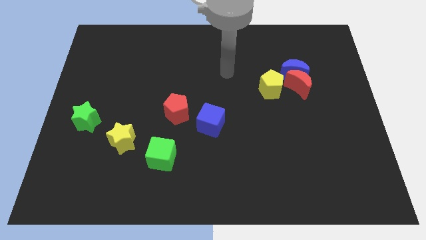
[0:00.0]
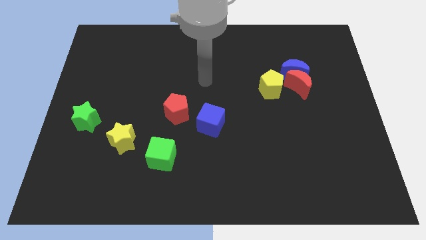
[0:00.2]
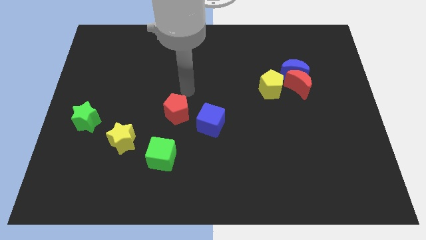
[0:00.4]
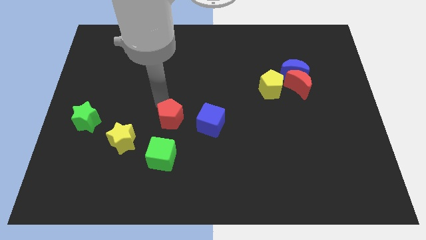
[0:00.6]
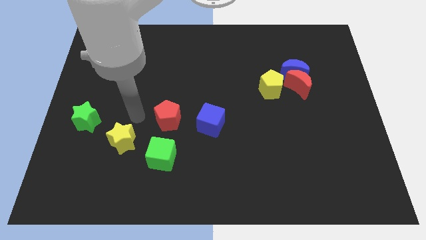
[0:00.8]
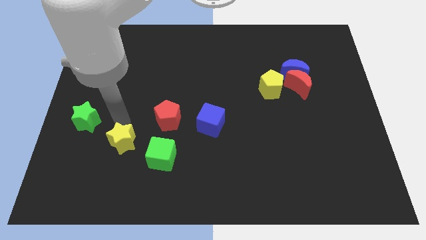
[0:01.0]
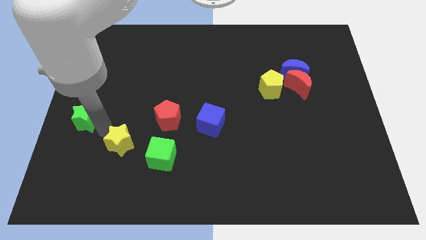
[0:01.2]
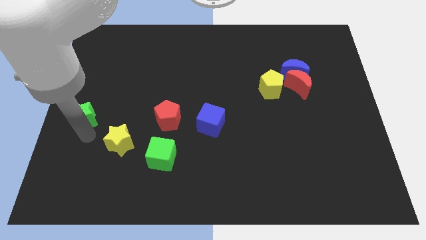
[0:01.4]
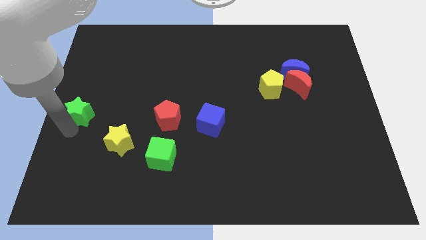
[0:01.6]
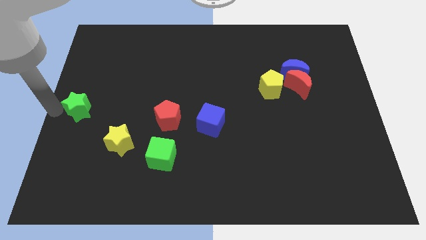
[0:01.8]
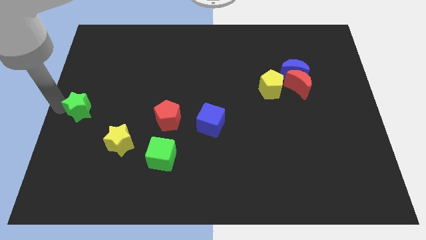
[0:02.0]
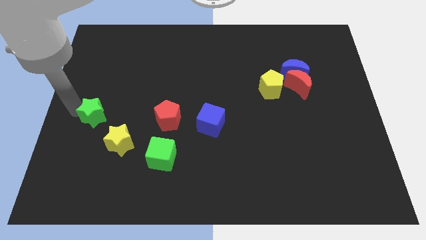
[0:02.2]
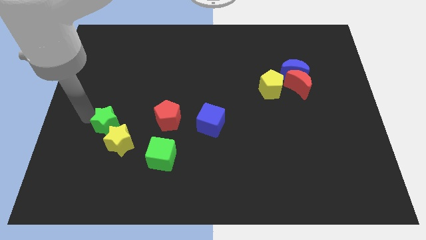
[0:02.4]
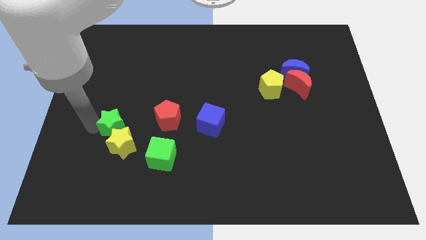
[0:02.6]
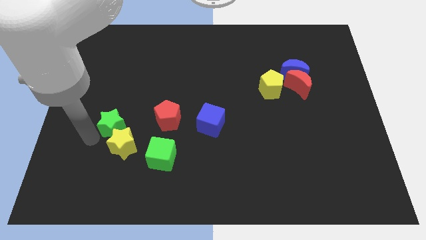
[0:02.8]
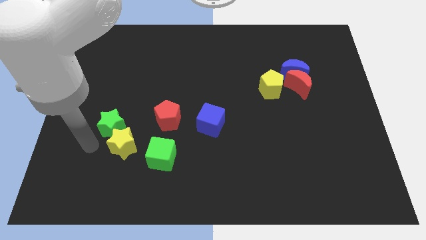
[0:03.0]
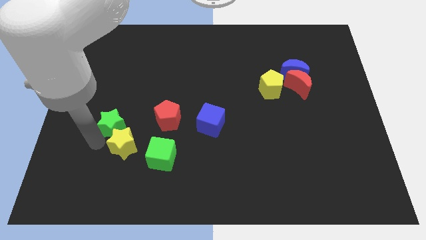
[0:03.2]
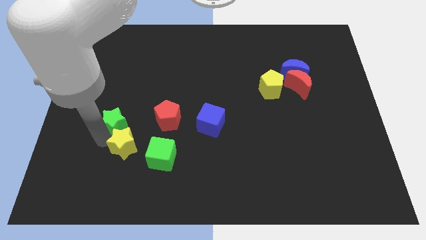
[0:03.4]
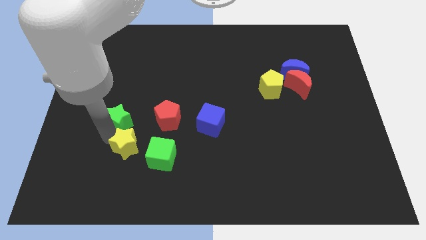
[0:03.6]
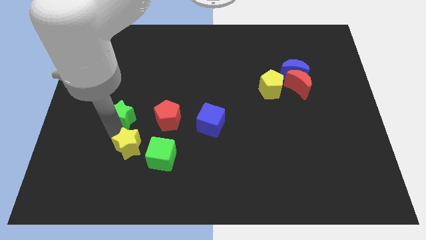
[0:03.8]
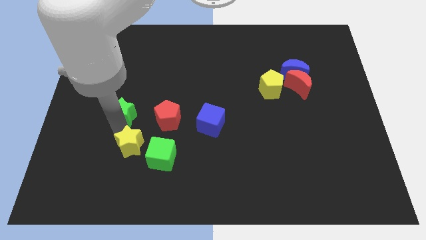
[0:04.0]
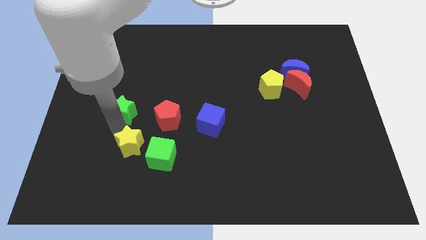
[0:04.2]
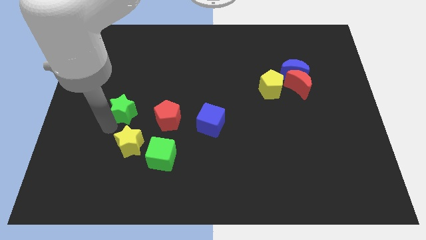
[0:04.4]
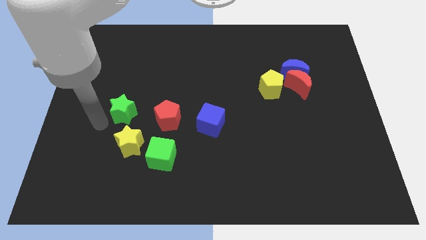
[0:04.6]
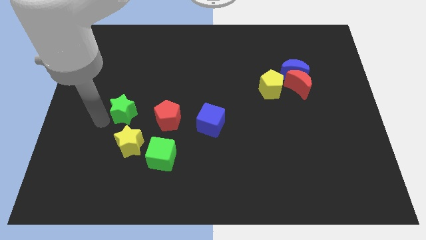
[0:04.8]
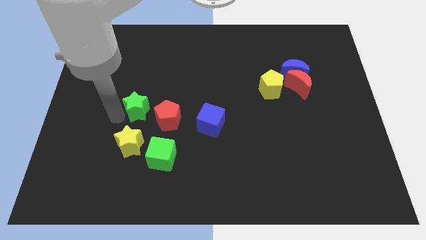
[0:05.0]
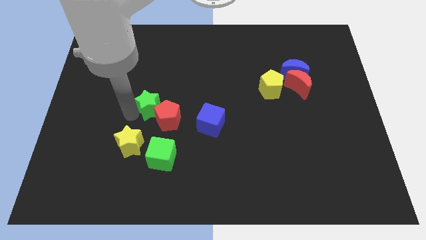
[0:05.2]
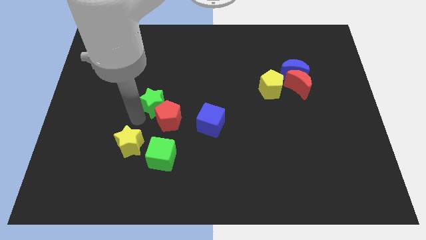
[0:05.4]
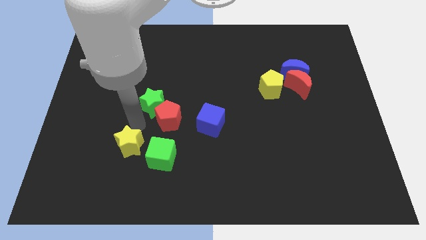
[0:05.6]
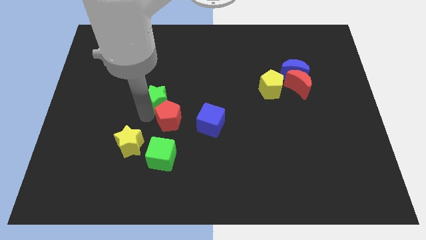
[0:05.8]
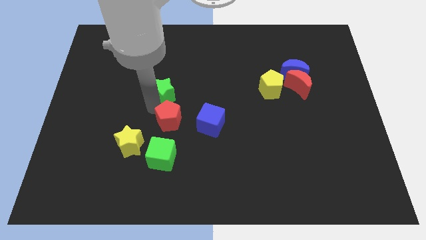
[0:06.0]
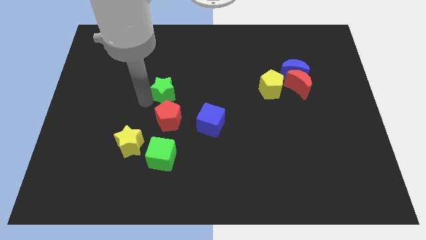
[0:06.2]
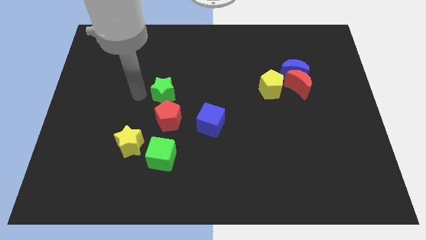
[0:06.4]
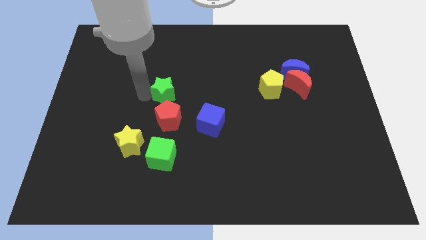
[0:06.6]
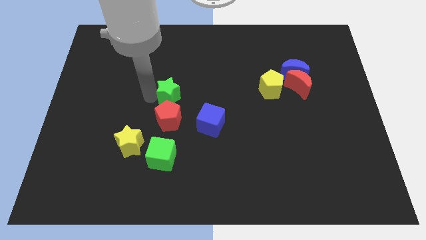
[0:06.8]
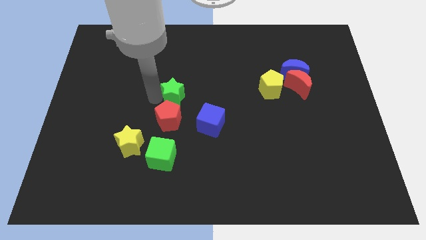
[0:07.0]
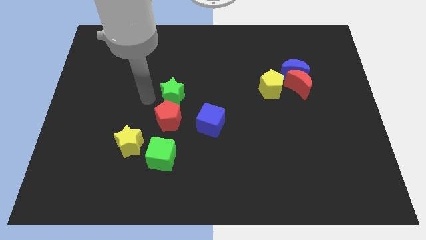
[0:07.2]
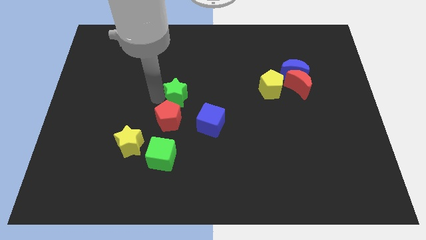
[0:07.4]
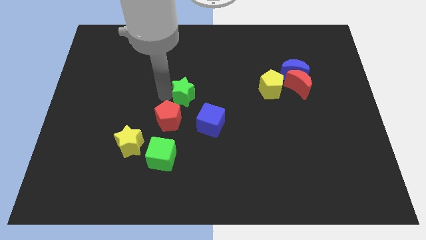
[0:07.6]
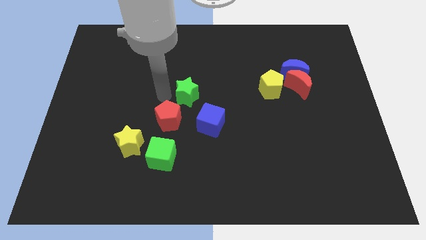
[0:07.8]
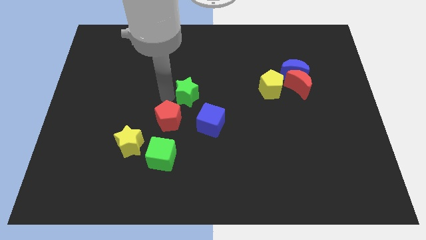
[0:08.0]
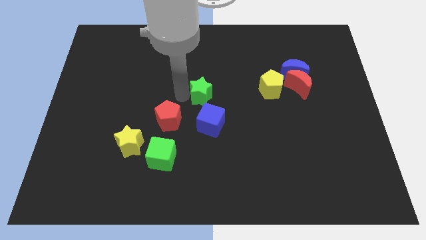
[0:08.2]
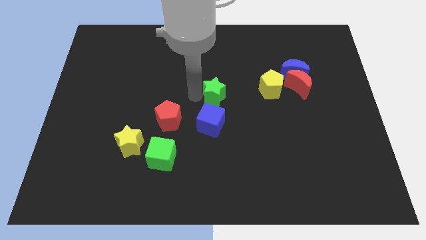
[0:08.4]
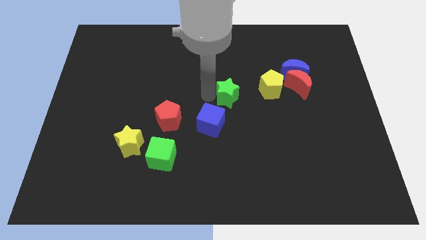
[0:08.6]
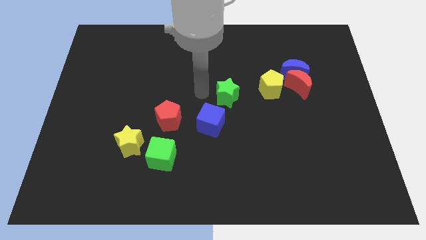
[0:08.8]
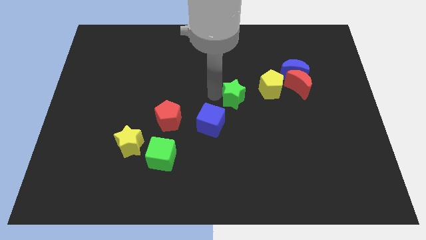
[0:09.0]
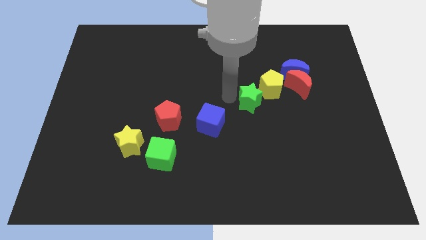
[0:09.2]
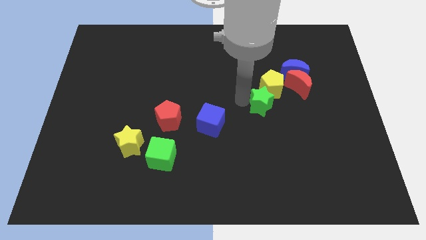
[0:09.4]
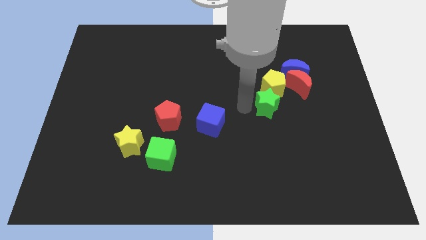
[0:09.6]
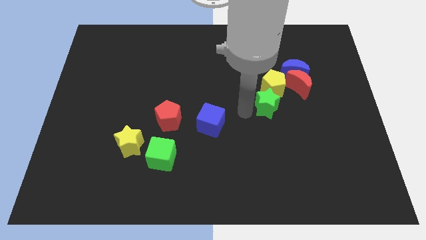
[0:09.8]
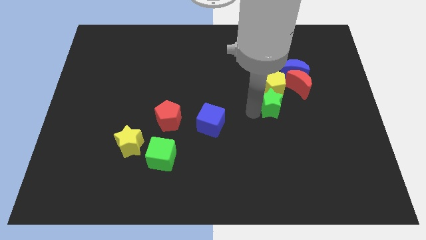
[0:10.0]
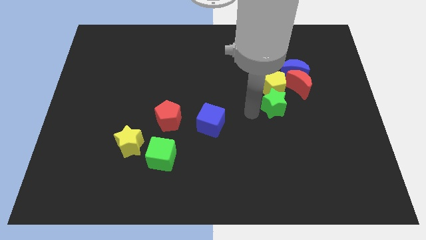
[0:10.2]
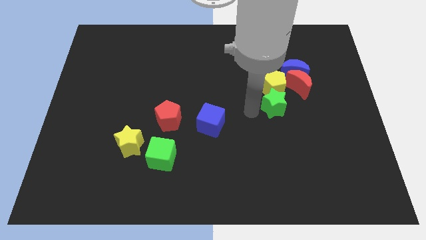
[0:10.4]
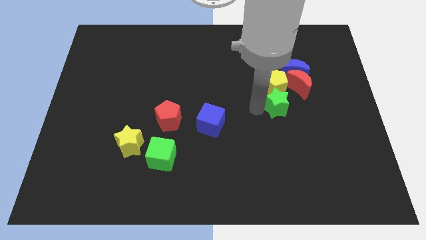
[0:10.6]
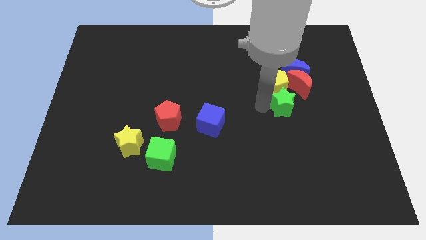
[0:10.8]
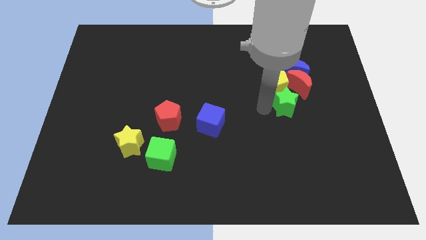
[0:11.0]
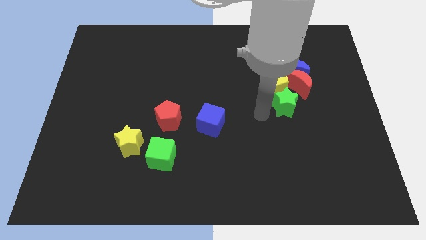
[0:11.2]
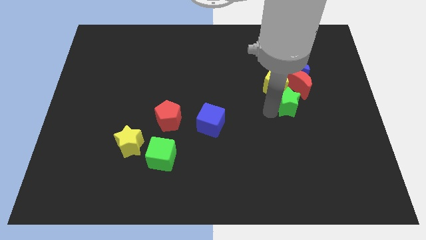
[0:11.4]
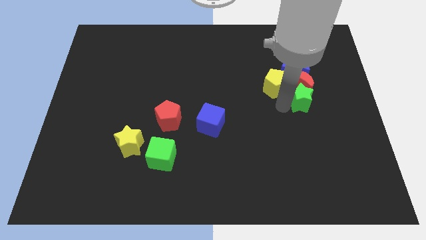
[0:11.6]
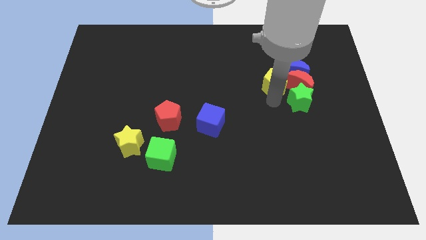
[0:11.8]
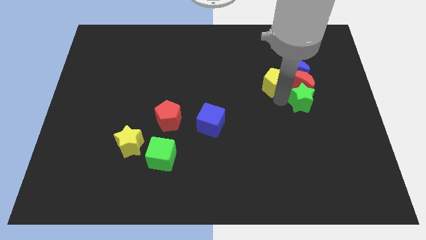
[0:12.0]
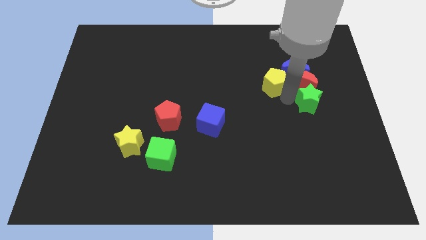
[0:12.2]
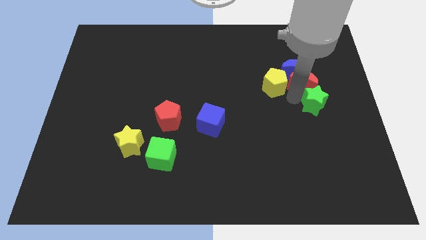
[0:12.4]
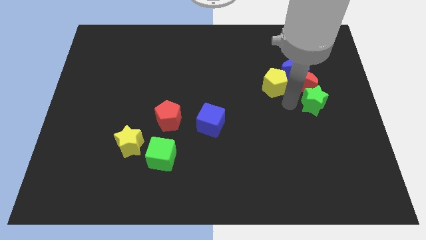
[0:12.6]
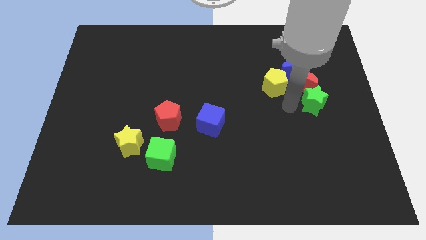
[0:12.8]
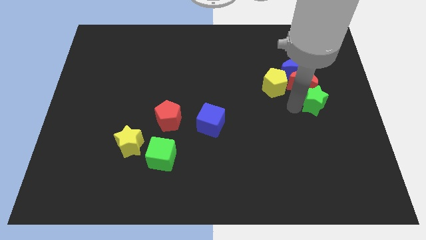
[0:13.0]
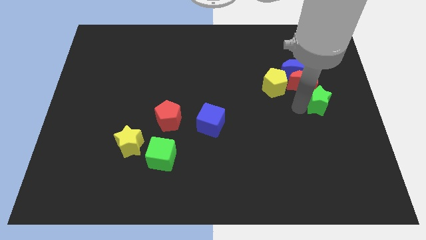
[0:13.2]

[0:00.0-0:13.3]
put the green star to the center right

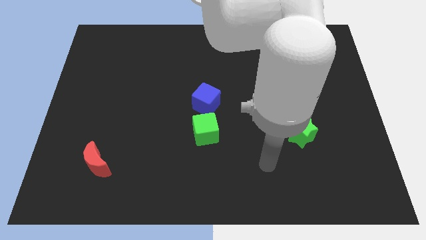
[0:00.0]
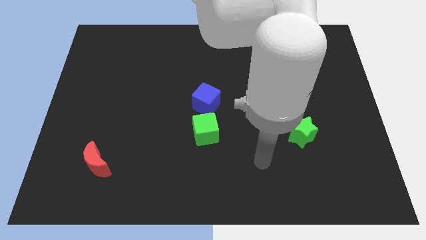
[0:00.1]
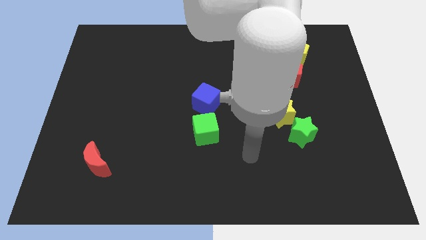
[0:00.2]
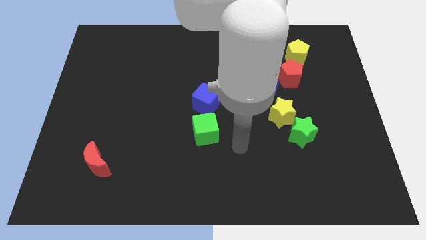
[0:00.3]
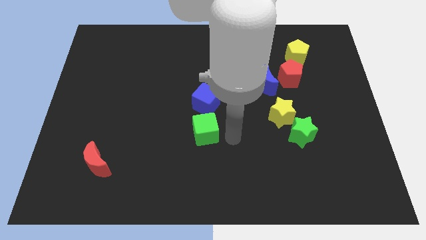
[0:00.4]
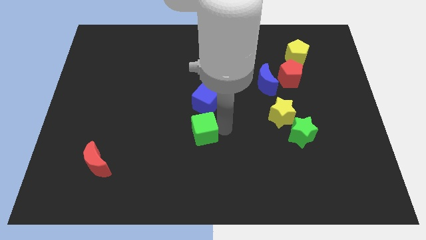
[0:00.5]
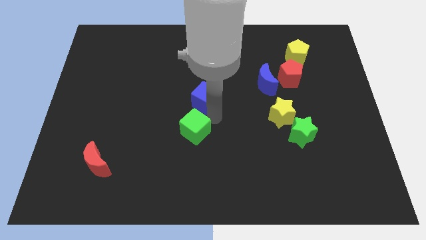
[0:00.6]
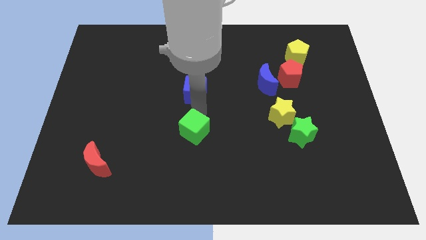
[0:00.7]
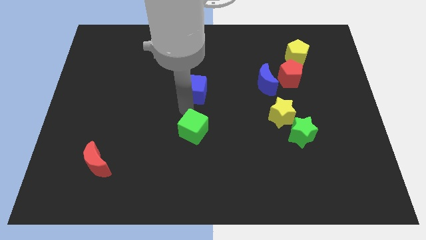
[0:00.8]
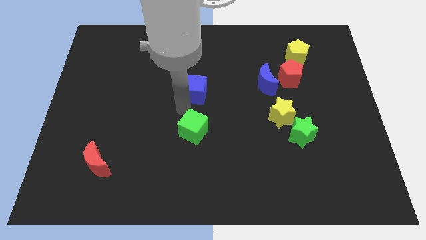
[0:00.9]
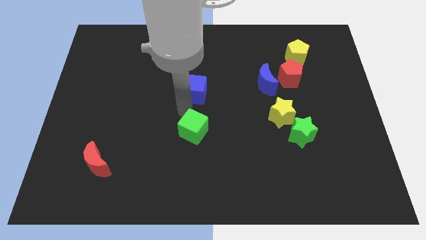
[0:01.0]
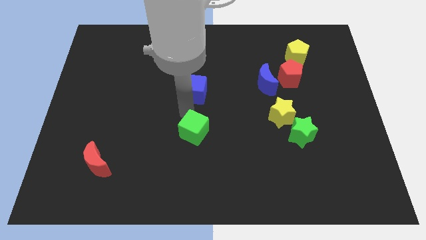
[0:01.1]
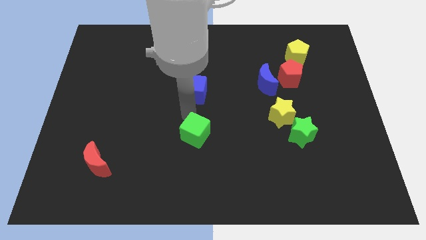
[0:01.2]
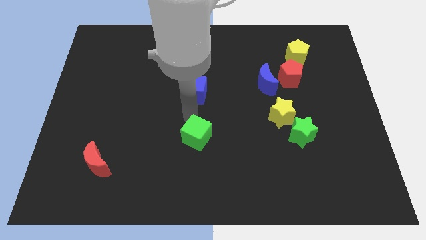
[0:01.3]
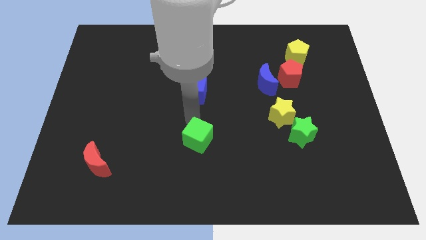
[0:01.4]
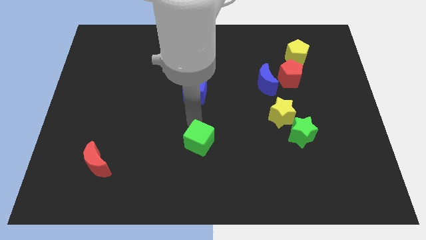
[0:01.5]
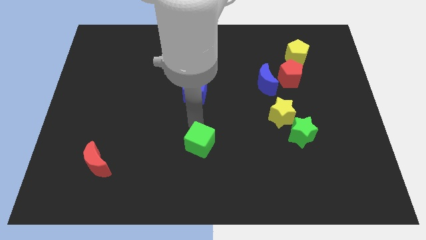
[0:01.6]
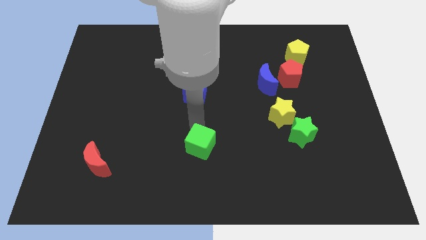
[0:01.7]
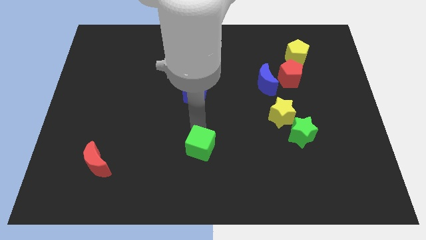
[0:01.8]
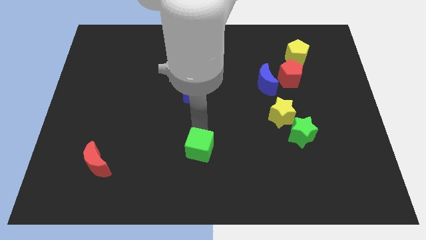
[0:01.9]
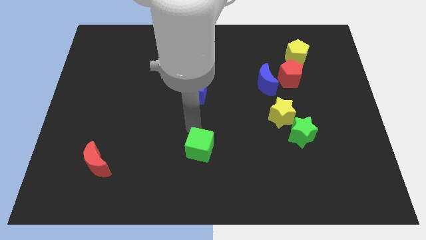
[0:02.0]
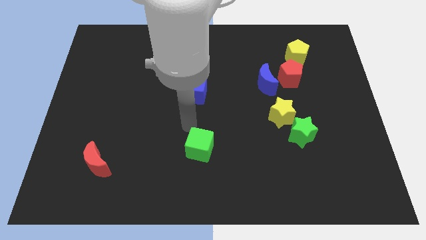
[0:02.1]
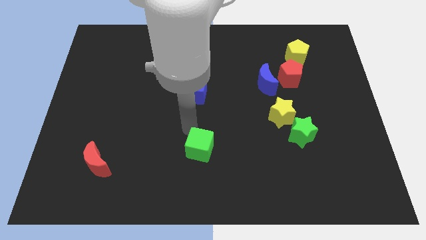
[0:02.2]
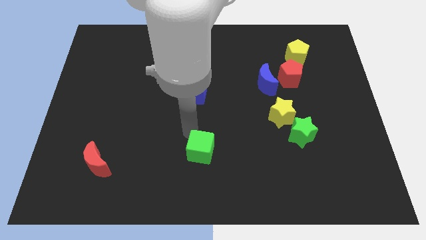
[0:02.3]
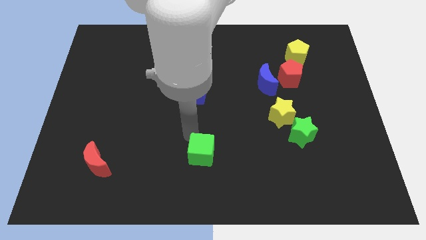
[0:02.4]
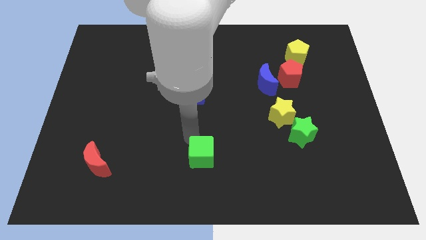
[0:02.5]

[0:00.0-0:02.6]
move the green cube to the bottom
